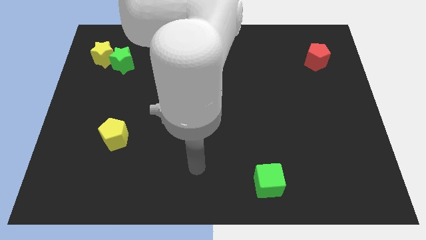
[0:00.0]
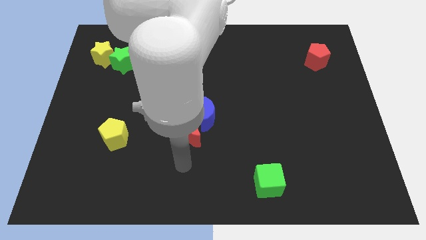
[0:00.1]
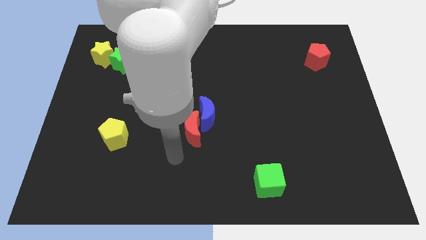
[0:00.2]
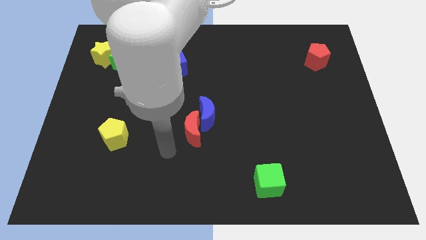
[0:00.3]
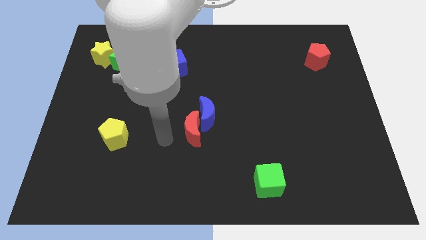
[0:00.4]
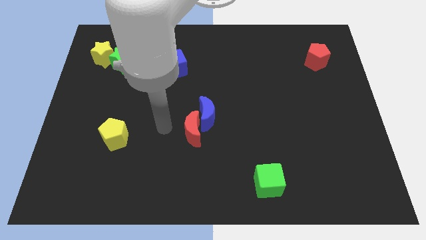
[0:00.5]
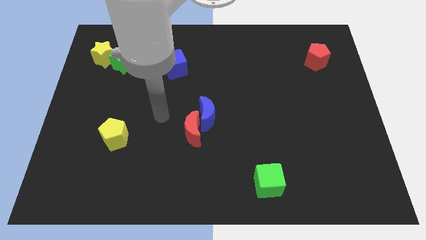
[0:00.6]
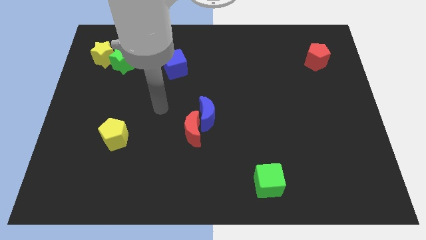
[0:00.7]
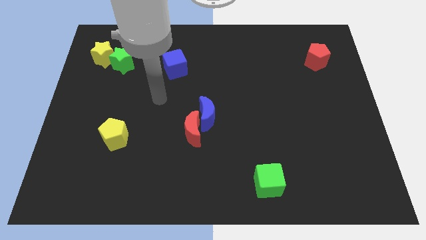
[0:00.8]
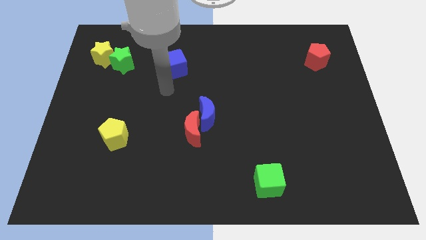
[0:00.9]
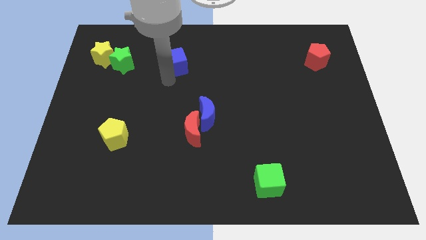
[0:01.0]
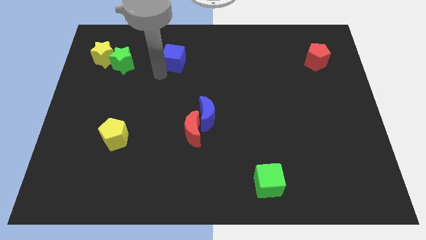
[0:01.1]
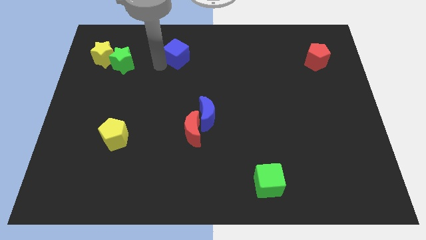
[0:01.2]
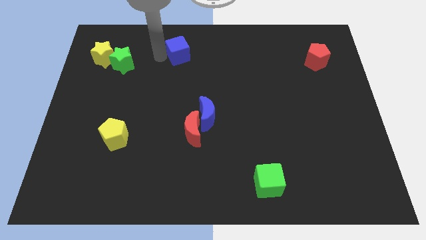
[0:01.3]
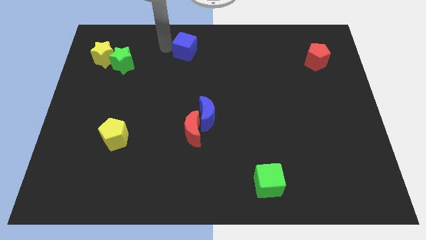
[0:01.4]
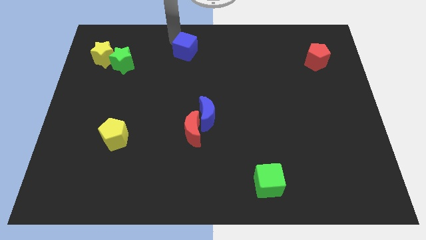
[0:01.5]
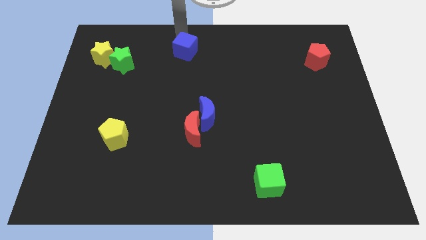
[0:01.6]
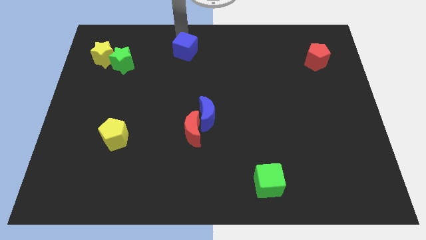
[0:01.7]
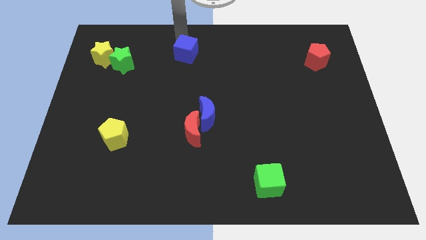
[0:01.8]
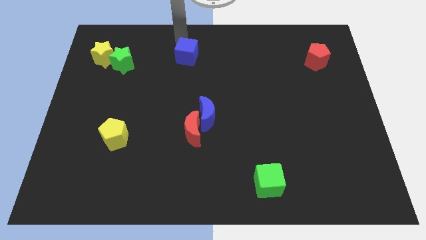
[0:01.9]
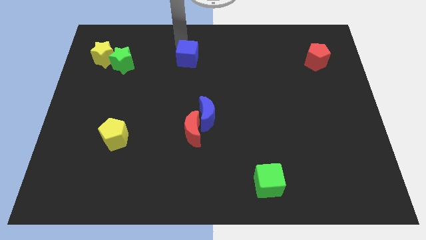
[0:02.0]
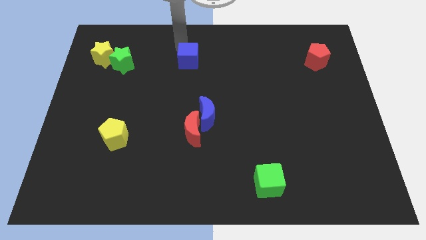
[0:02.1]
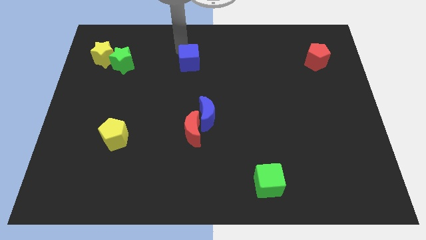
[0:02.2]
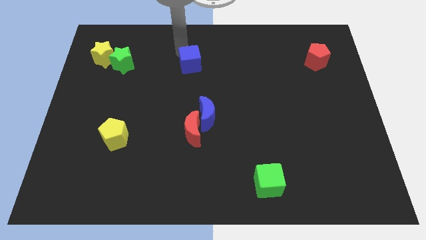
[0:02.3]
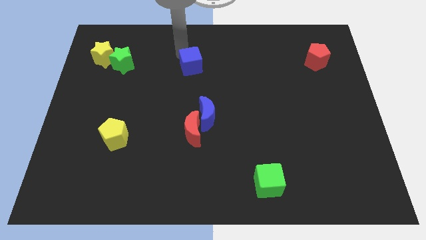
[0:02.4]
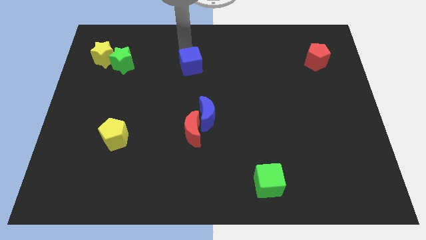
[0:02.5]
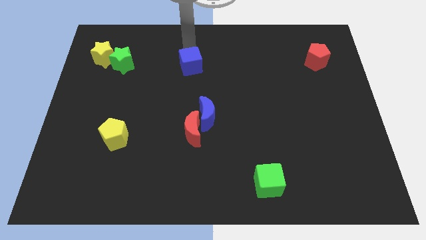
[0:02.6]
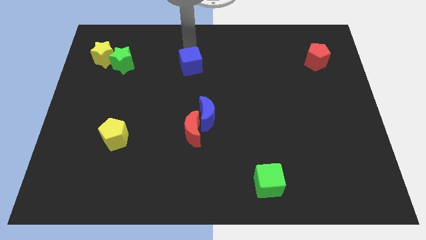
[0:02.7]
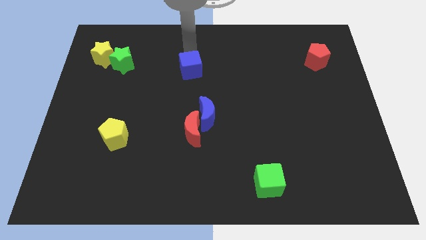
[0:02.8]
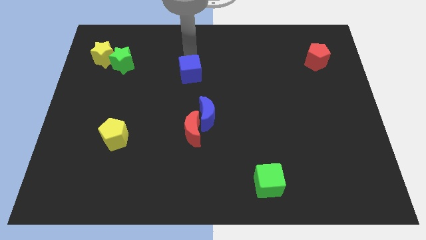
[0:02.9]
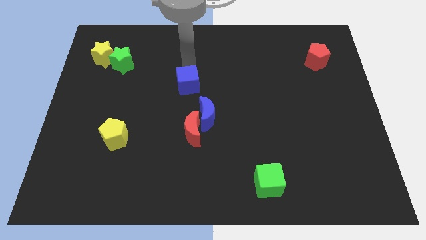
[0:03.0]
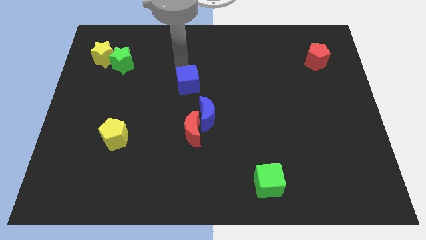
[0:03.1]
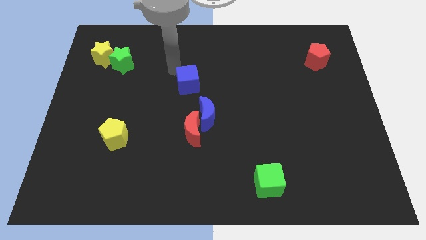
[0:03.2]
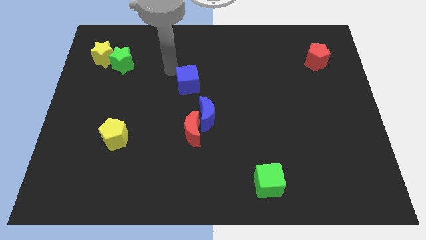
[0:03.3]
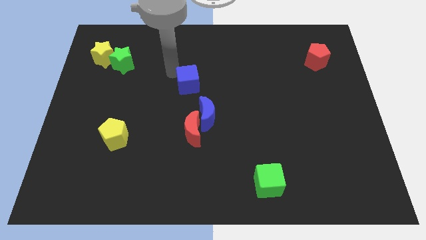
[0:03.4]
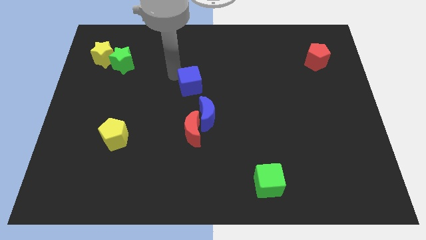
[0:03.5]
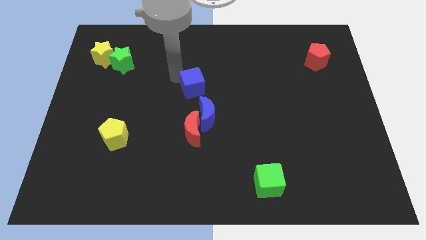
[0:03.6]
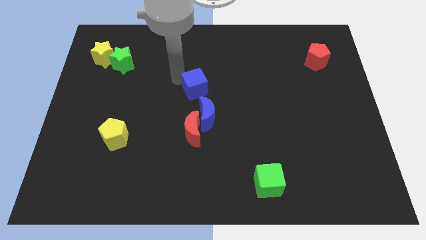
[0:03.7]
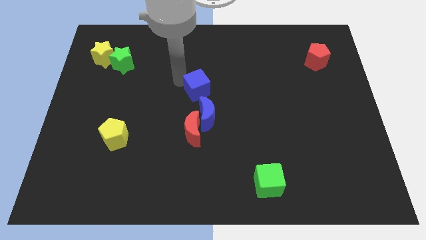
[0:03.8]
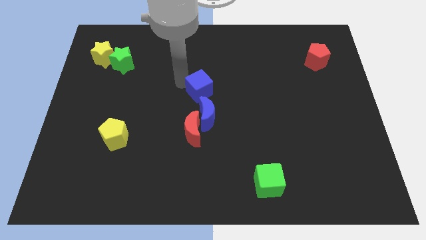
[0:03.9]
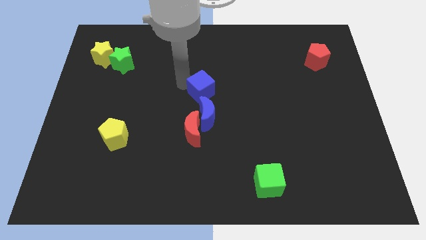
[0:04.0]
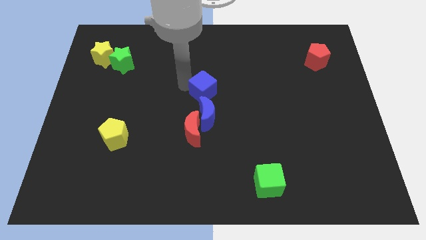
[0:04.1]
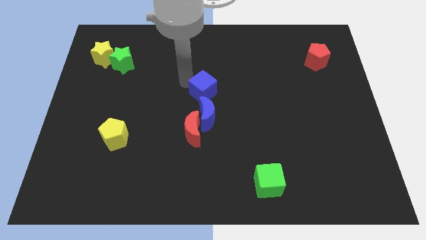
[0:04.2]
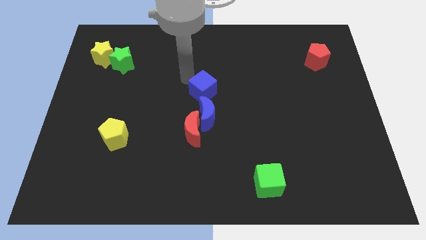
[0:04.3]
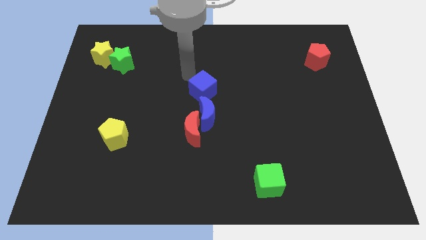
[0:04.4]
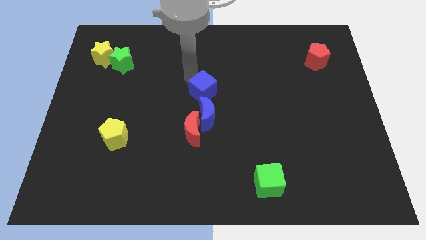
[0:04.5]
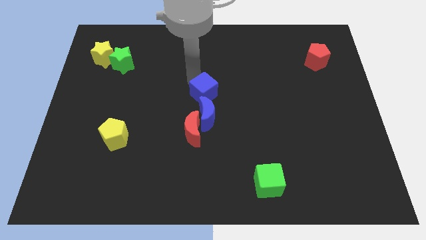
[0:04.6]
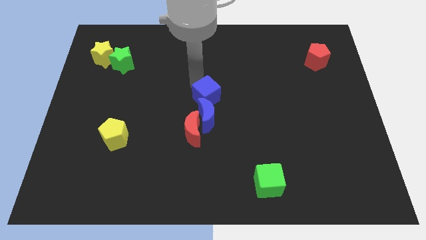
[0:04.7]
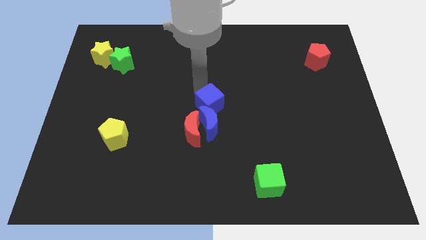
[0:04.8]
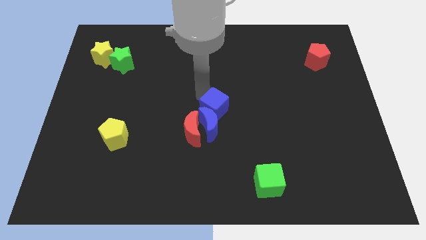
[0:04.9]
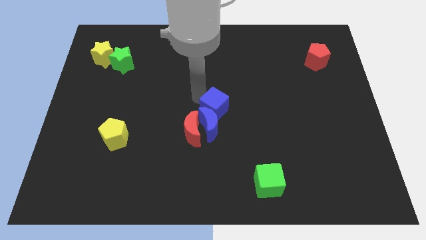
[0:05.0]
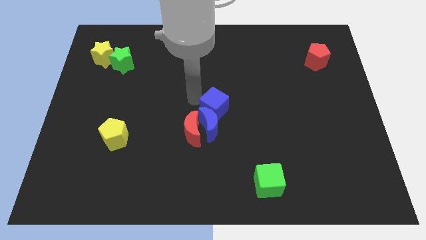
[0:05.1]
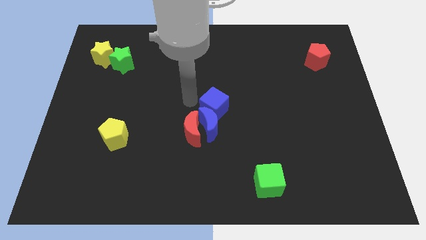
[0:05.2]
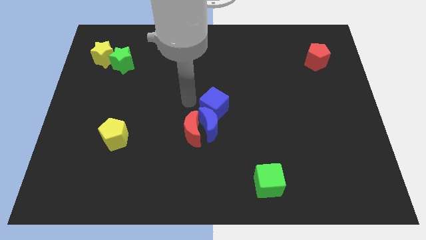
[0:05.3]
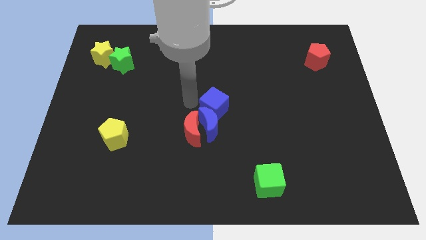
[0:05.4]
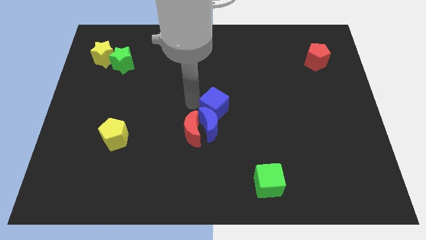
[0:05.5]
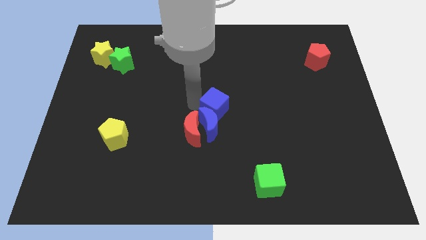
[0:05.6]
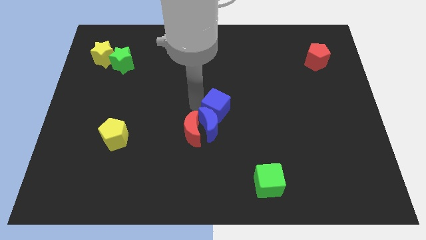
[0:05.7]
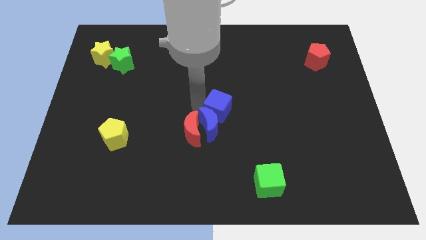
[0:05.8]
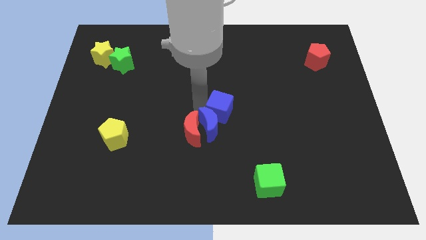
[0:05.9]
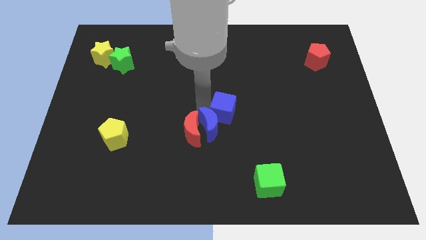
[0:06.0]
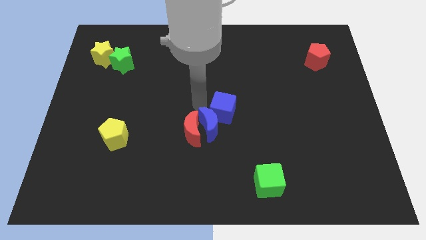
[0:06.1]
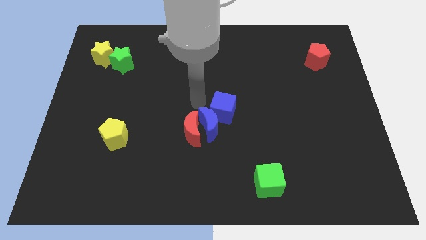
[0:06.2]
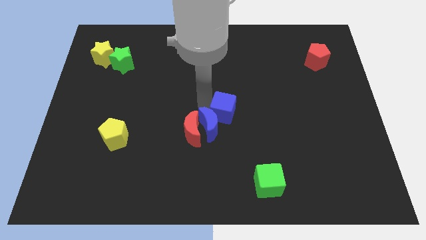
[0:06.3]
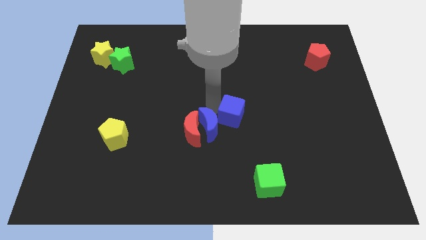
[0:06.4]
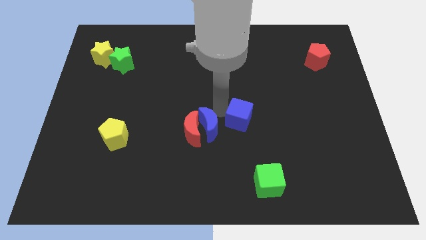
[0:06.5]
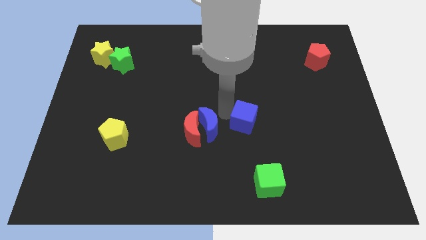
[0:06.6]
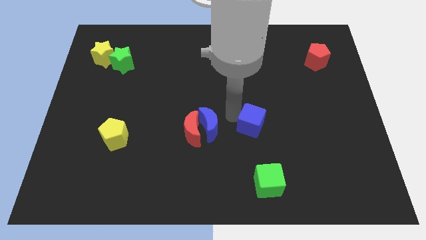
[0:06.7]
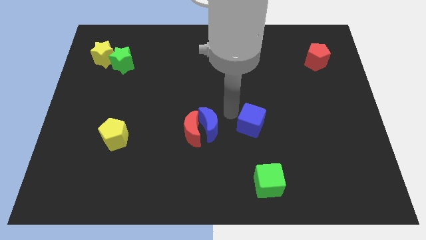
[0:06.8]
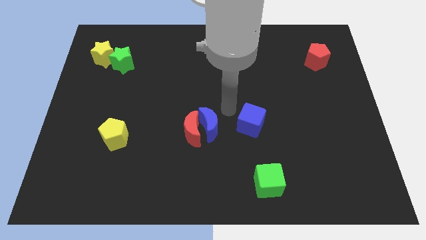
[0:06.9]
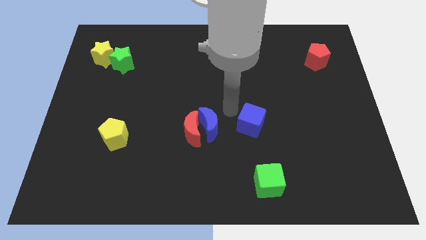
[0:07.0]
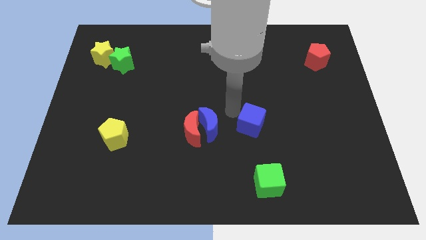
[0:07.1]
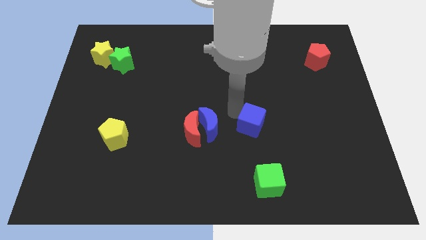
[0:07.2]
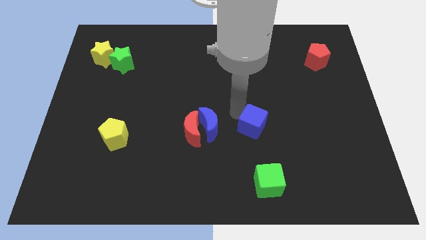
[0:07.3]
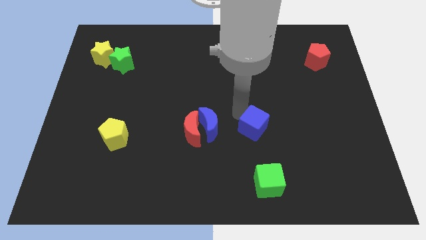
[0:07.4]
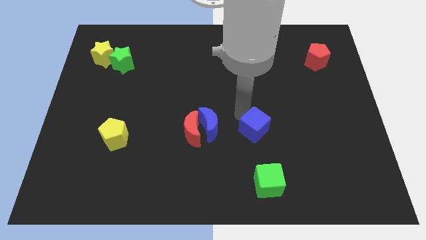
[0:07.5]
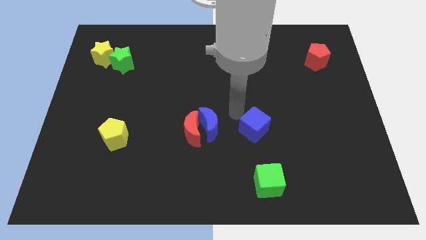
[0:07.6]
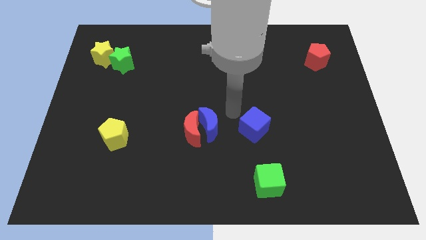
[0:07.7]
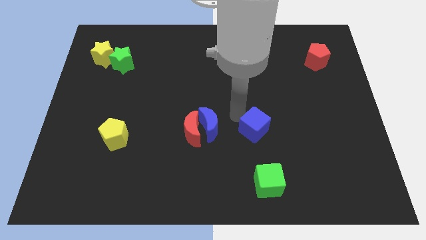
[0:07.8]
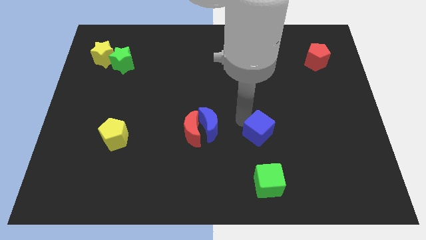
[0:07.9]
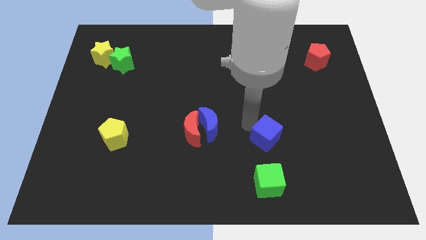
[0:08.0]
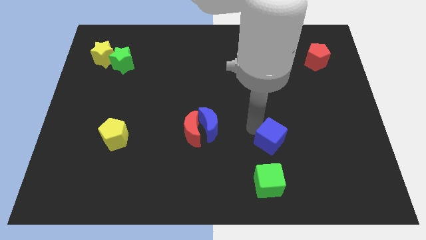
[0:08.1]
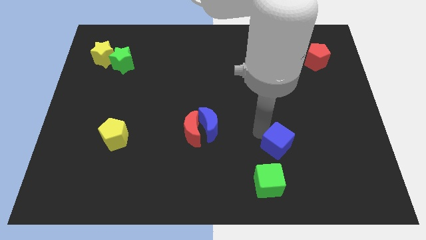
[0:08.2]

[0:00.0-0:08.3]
put the blue cube to the top right side of the green cube
